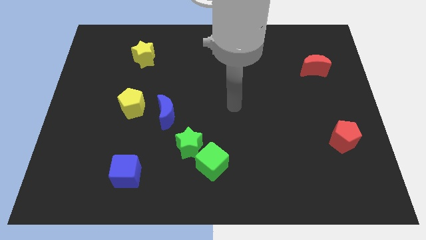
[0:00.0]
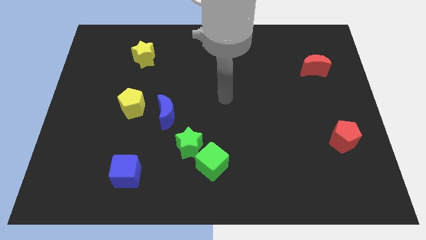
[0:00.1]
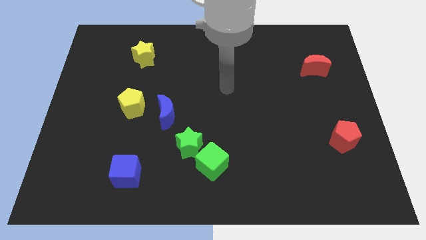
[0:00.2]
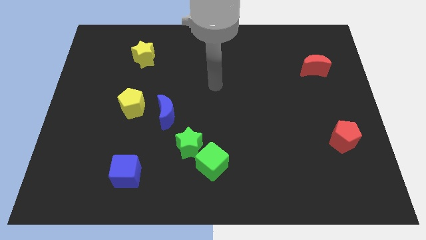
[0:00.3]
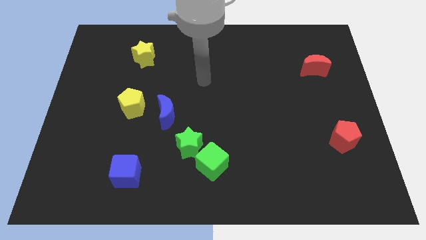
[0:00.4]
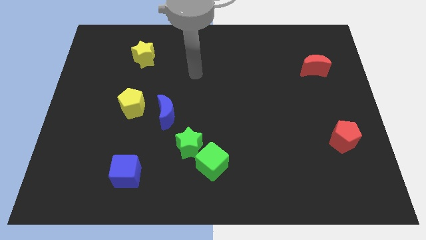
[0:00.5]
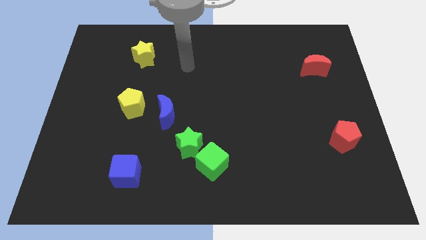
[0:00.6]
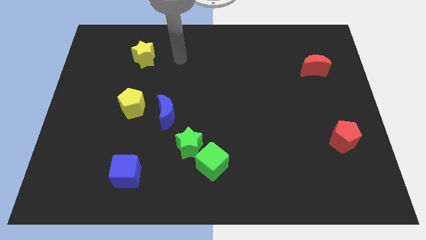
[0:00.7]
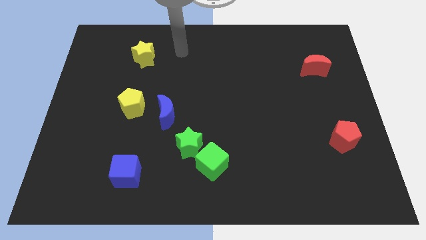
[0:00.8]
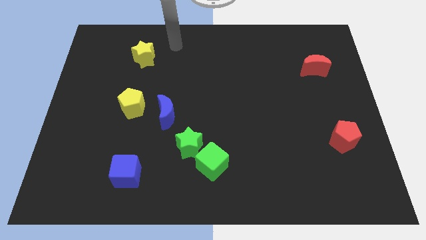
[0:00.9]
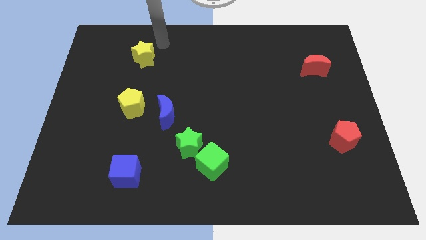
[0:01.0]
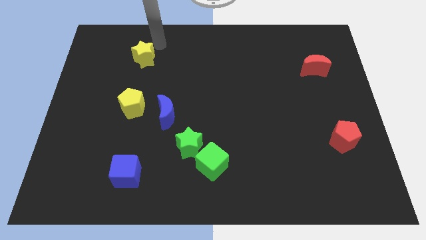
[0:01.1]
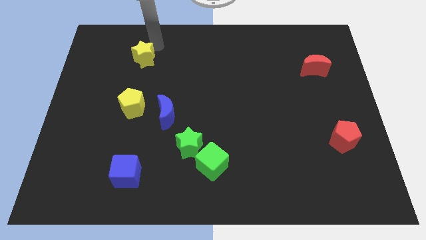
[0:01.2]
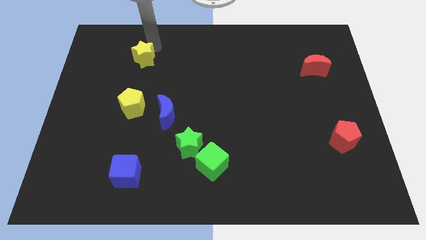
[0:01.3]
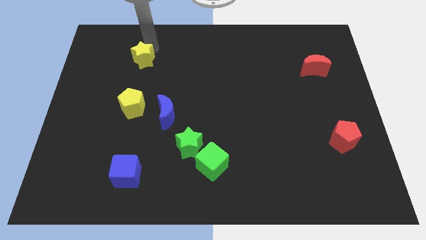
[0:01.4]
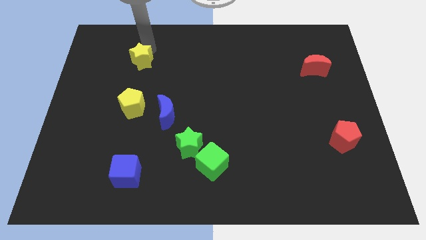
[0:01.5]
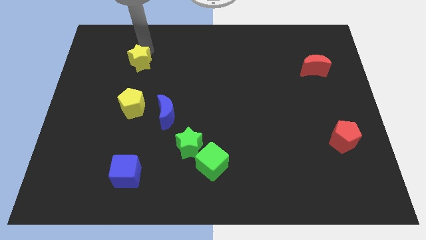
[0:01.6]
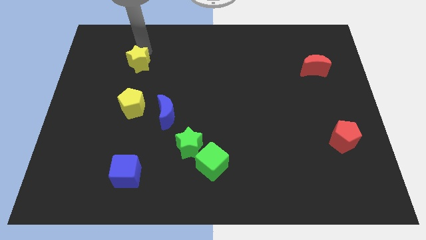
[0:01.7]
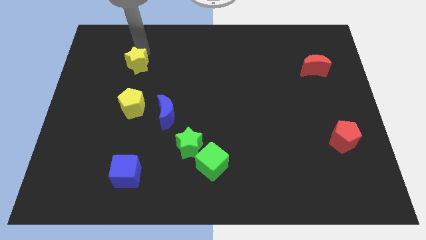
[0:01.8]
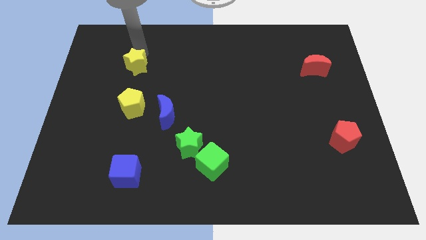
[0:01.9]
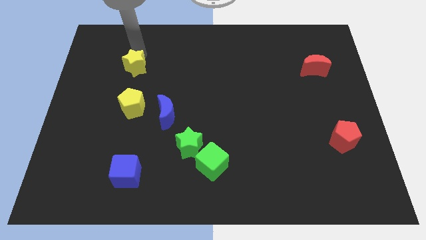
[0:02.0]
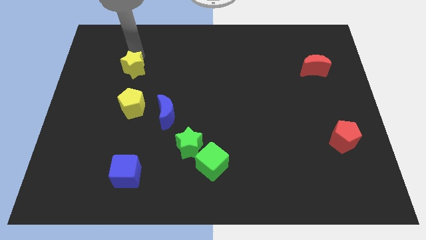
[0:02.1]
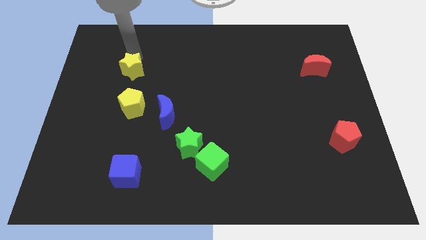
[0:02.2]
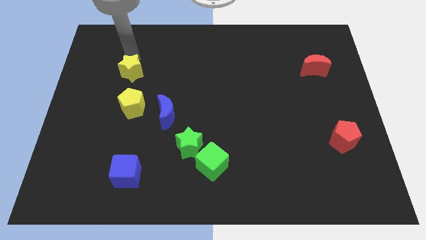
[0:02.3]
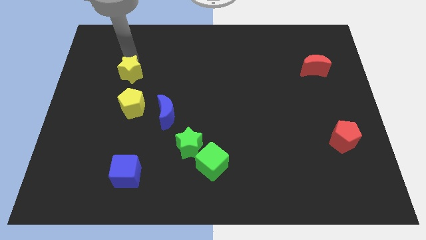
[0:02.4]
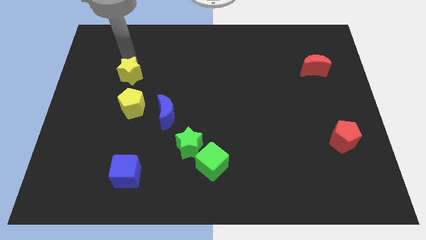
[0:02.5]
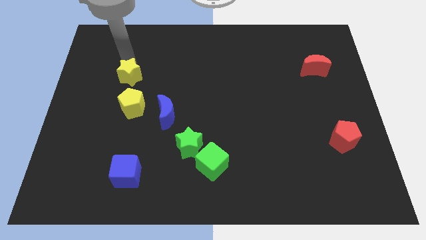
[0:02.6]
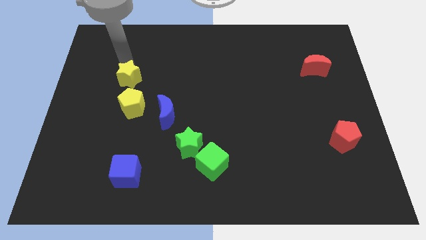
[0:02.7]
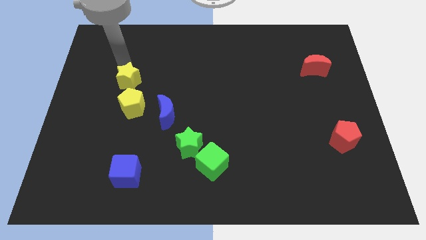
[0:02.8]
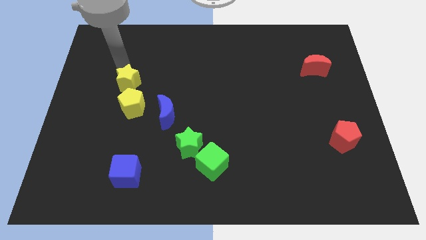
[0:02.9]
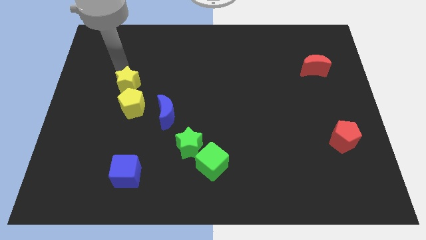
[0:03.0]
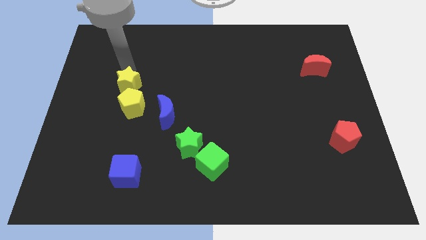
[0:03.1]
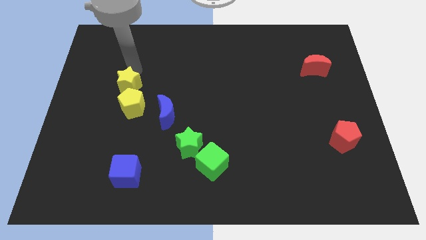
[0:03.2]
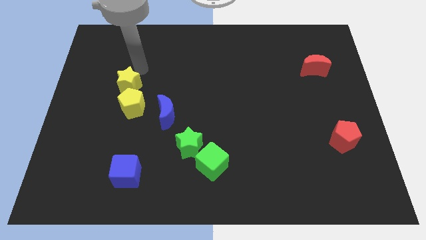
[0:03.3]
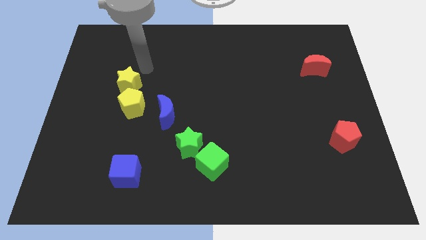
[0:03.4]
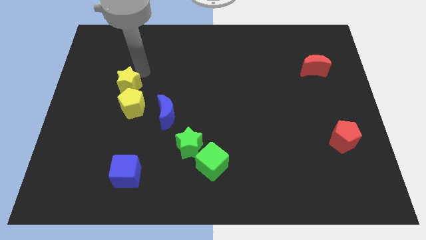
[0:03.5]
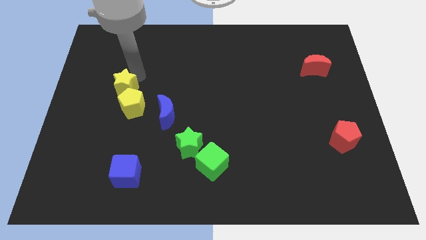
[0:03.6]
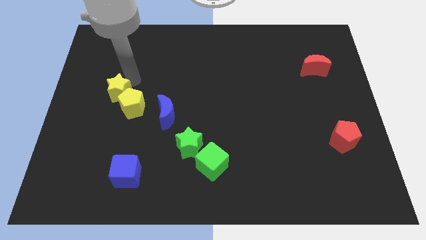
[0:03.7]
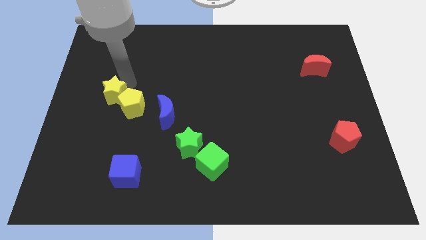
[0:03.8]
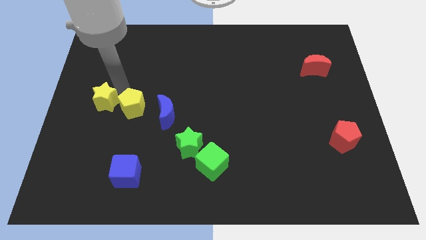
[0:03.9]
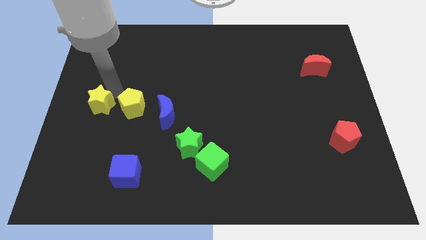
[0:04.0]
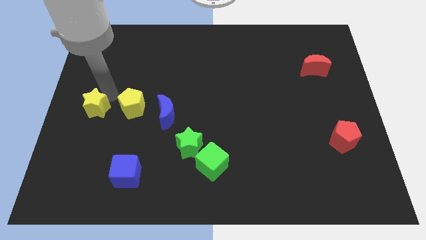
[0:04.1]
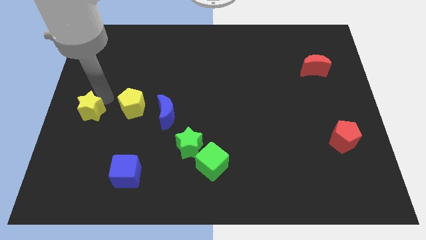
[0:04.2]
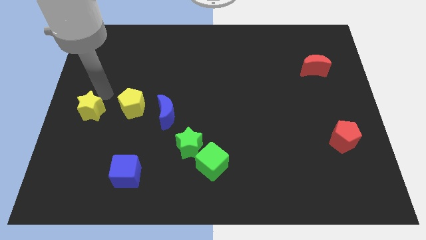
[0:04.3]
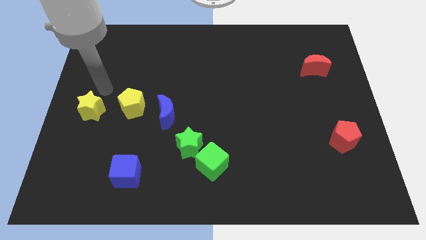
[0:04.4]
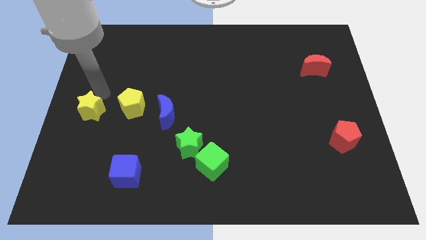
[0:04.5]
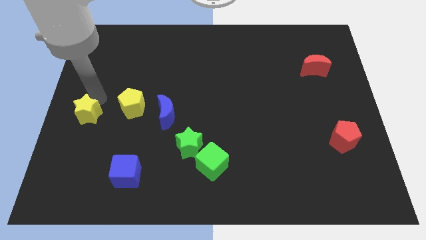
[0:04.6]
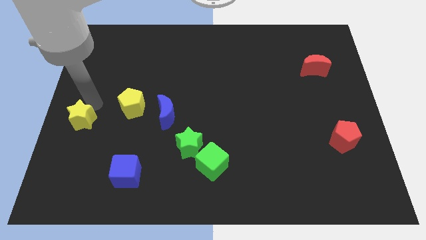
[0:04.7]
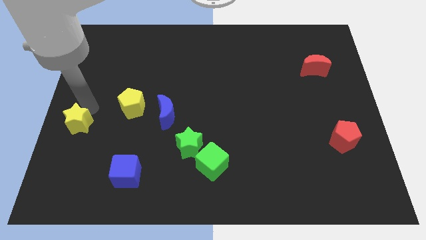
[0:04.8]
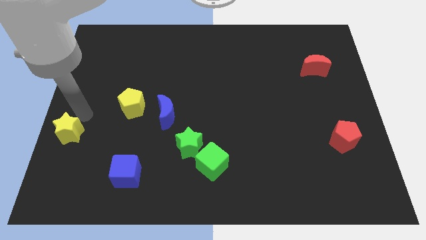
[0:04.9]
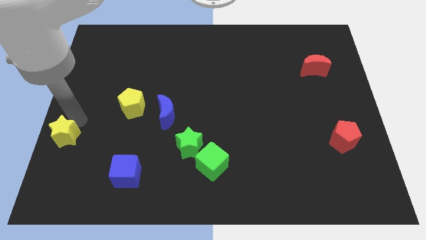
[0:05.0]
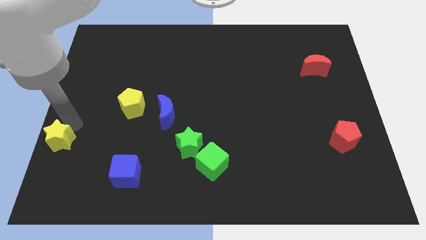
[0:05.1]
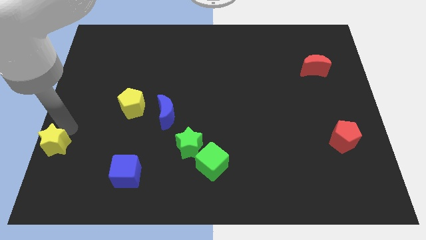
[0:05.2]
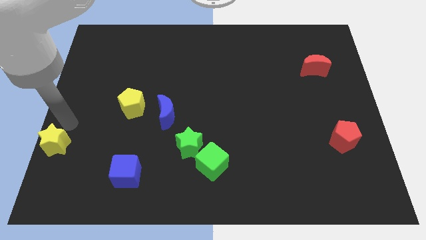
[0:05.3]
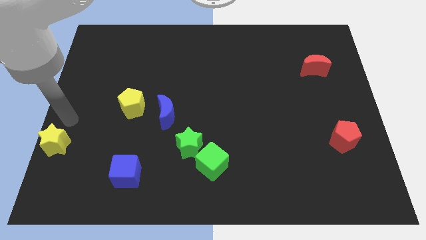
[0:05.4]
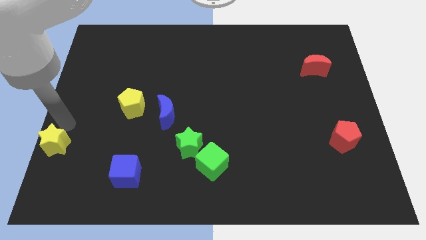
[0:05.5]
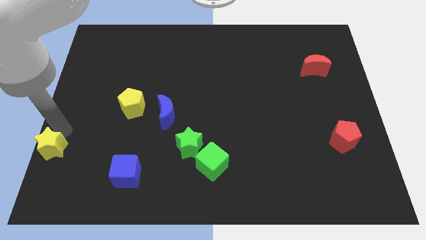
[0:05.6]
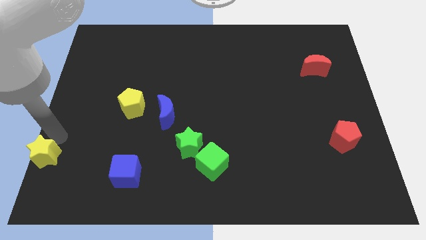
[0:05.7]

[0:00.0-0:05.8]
put the yellow star to the lower left corner
